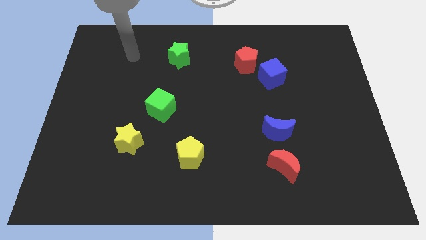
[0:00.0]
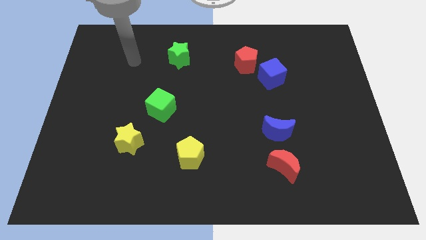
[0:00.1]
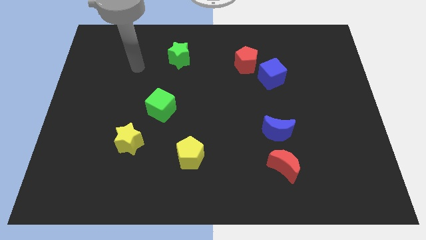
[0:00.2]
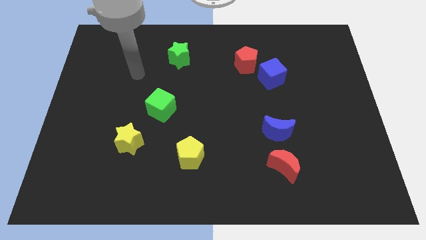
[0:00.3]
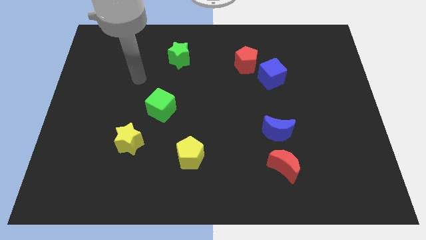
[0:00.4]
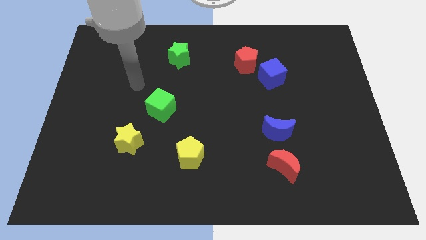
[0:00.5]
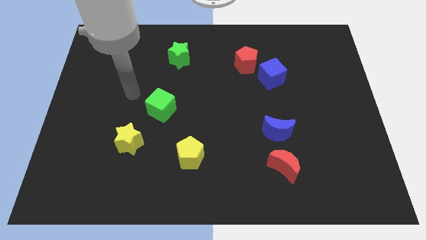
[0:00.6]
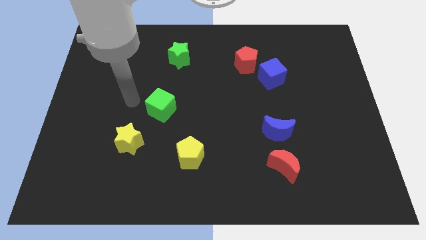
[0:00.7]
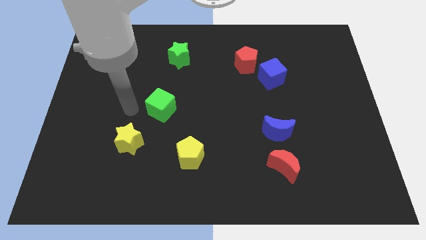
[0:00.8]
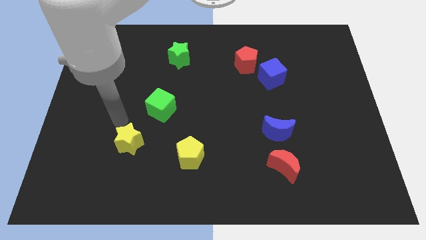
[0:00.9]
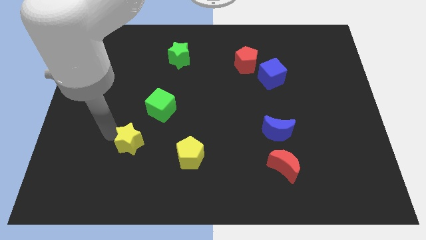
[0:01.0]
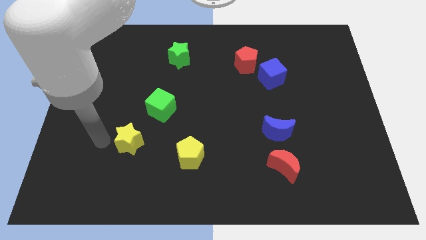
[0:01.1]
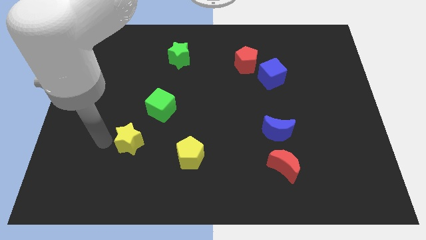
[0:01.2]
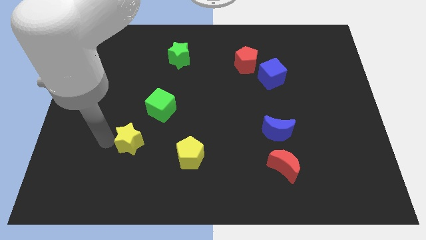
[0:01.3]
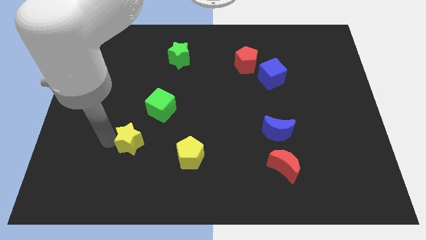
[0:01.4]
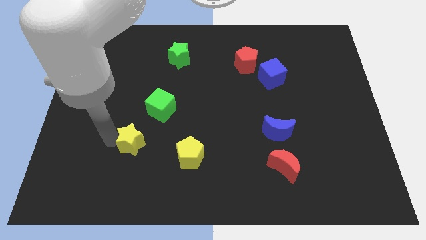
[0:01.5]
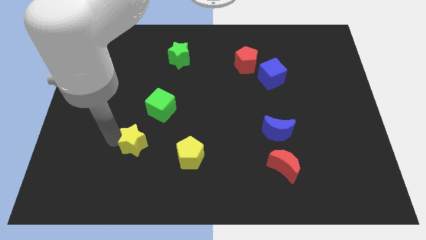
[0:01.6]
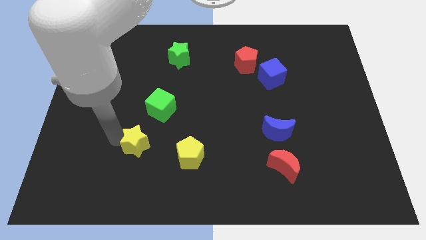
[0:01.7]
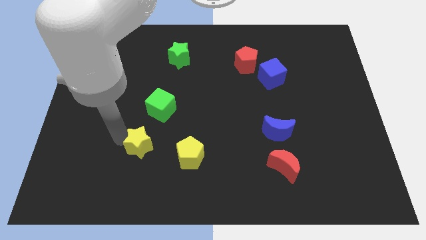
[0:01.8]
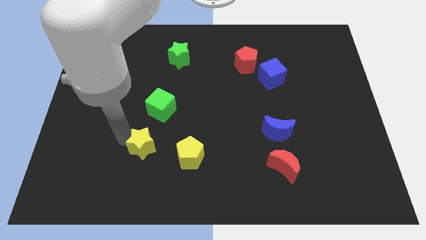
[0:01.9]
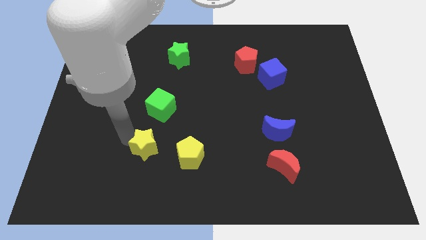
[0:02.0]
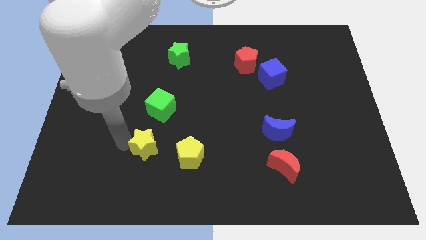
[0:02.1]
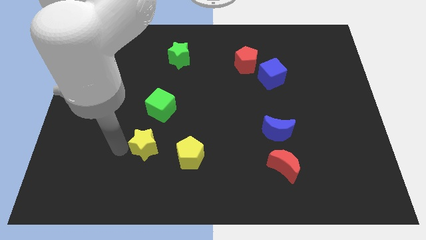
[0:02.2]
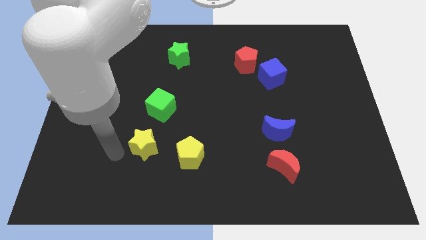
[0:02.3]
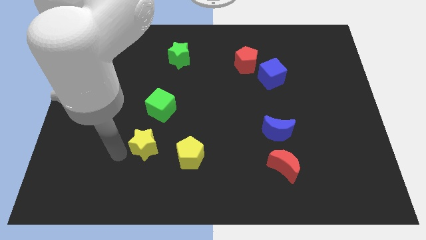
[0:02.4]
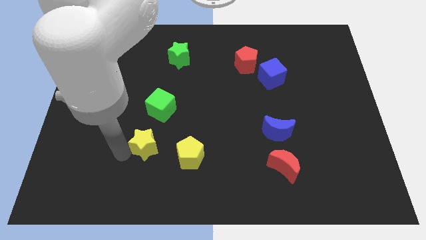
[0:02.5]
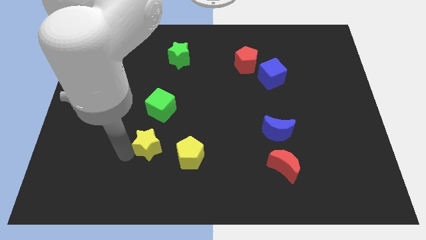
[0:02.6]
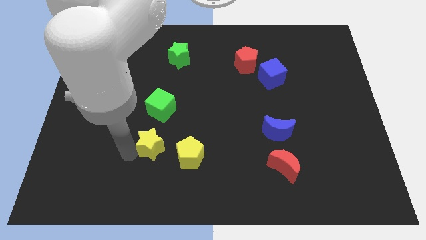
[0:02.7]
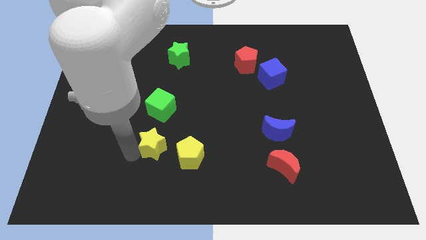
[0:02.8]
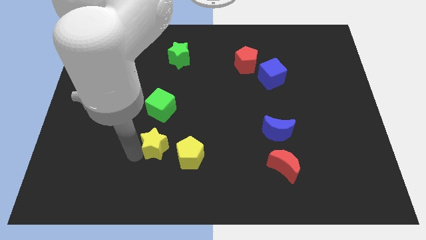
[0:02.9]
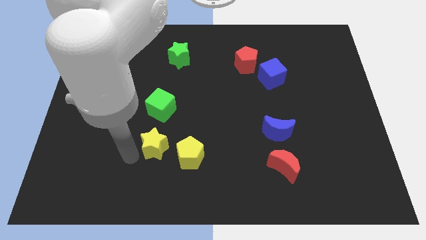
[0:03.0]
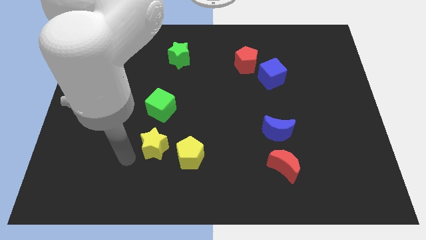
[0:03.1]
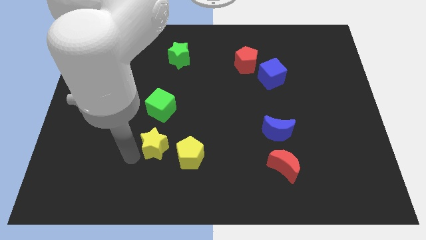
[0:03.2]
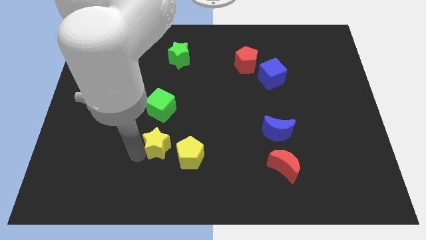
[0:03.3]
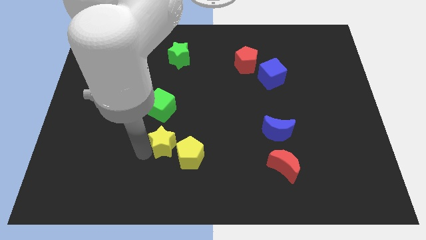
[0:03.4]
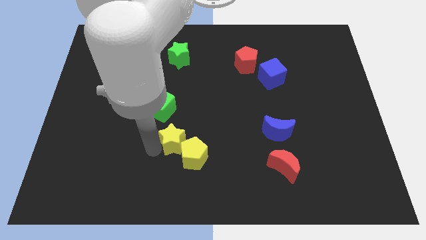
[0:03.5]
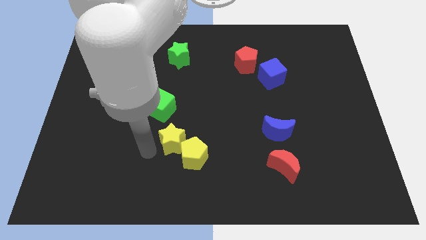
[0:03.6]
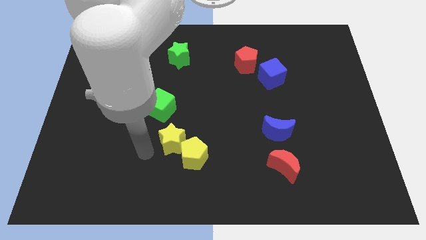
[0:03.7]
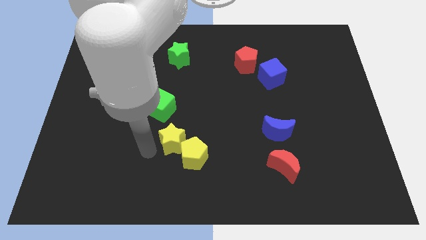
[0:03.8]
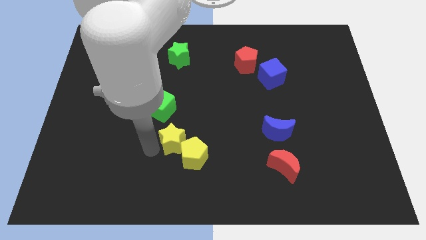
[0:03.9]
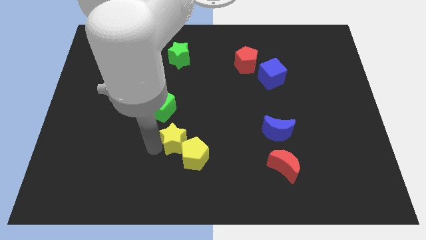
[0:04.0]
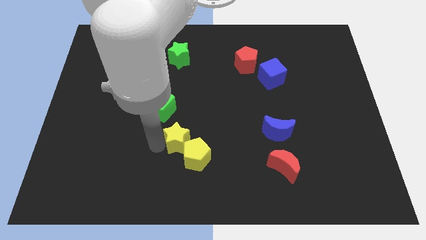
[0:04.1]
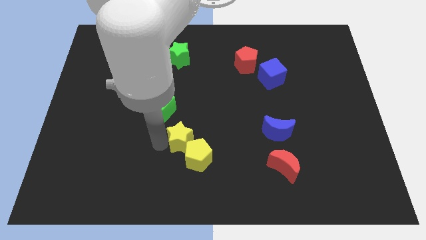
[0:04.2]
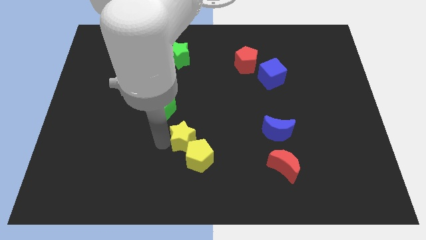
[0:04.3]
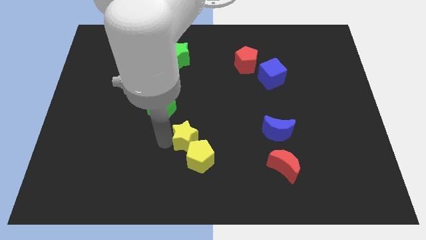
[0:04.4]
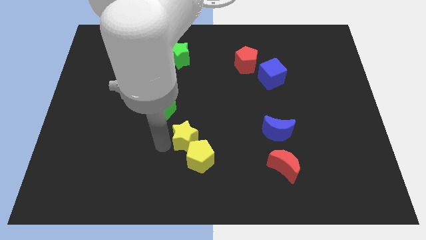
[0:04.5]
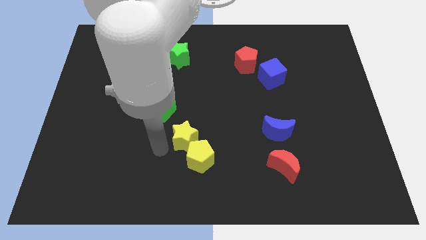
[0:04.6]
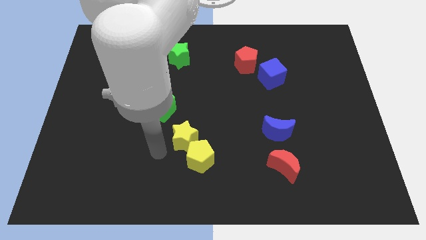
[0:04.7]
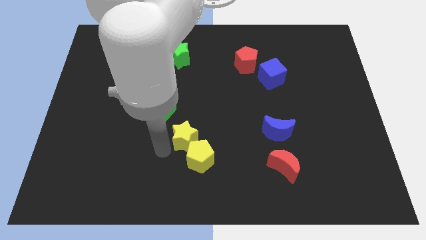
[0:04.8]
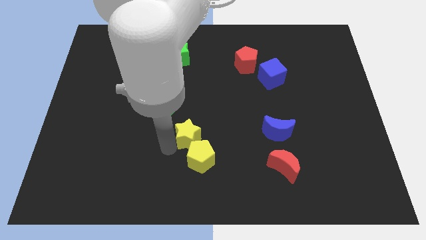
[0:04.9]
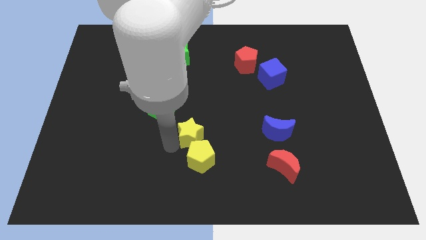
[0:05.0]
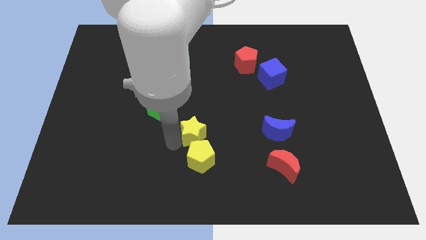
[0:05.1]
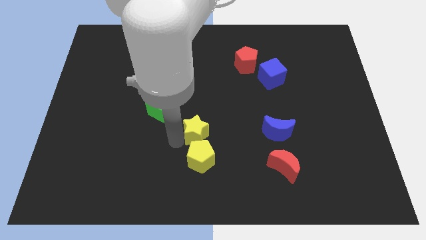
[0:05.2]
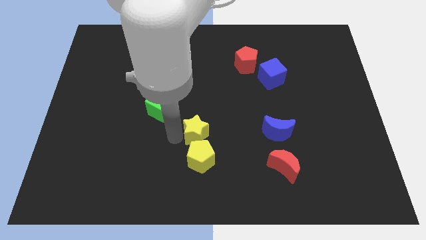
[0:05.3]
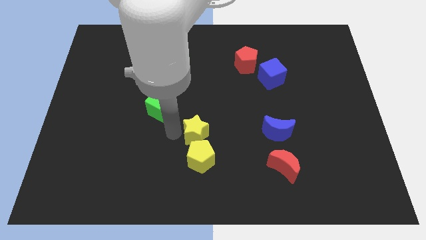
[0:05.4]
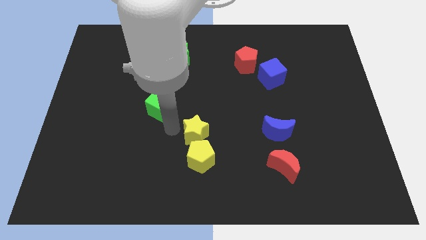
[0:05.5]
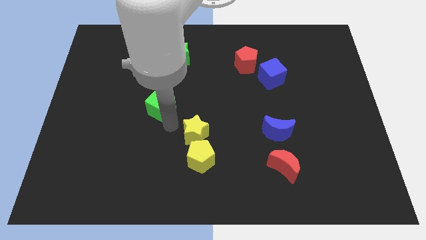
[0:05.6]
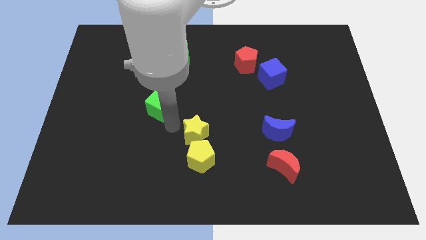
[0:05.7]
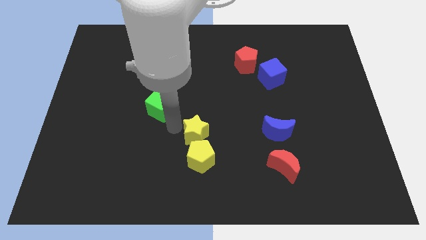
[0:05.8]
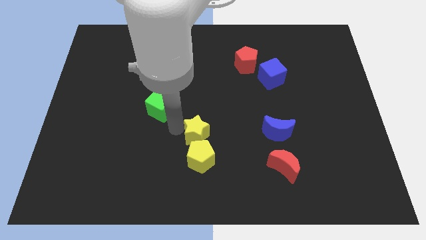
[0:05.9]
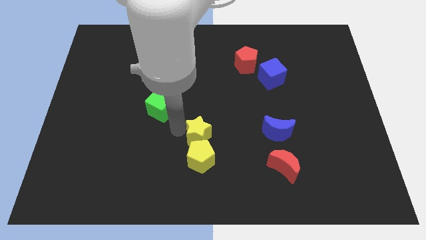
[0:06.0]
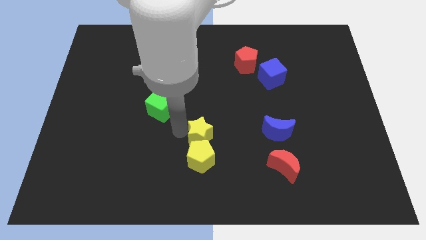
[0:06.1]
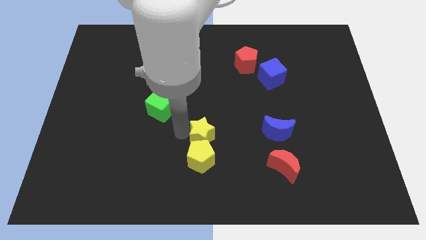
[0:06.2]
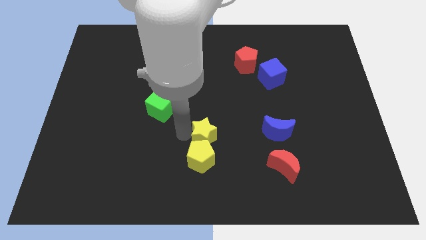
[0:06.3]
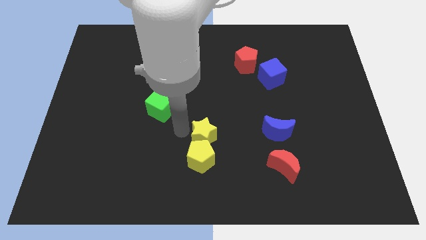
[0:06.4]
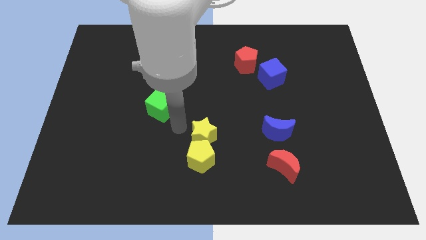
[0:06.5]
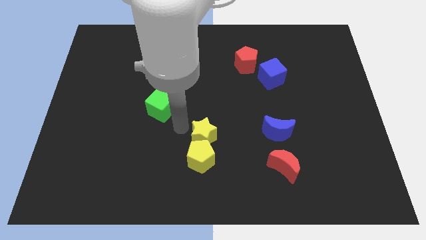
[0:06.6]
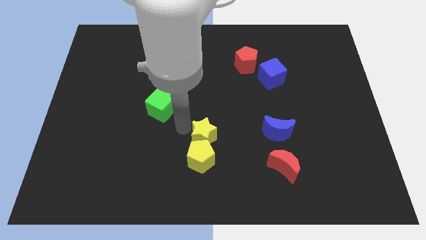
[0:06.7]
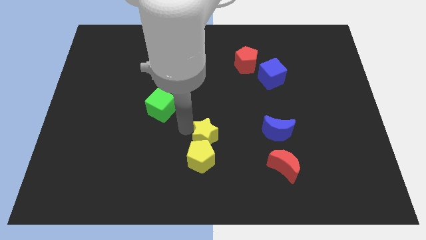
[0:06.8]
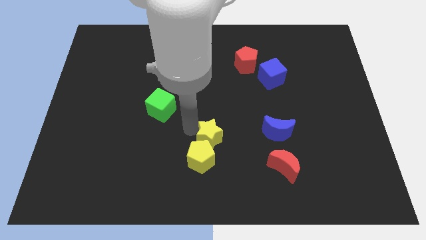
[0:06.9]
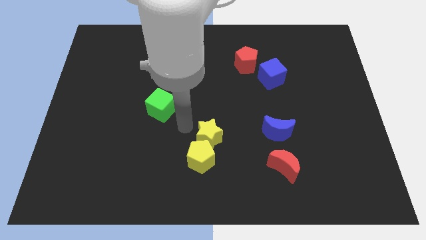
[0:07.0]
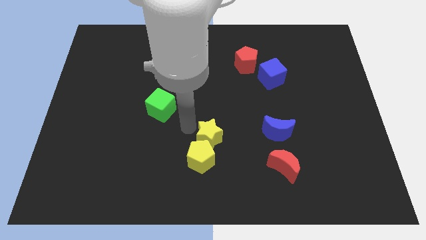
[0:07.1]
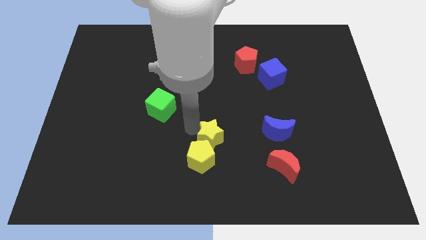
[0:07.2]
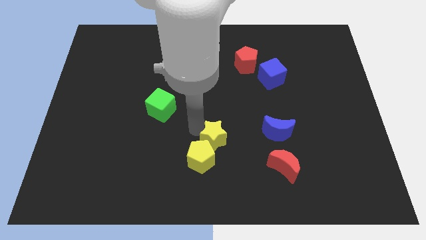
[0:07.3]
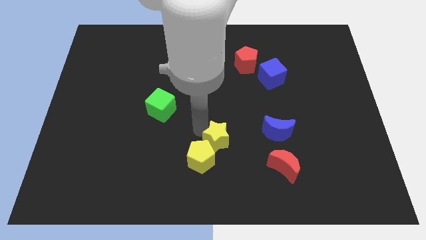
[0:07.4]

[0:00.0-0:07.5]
put the yellow star right of the yellow pentagon
